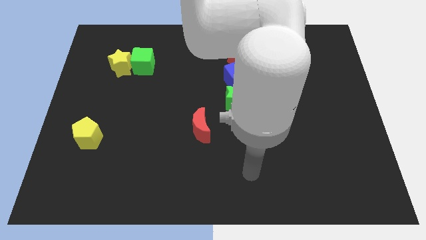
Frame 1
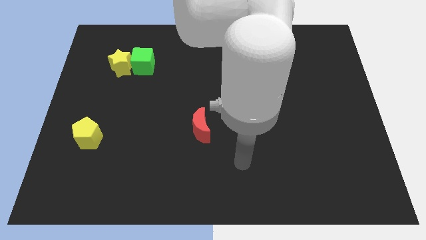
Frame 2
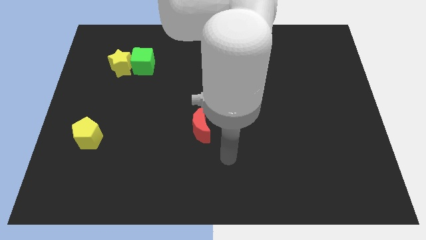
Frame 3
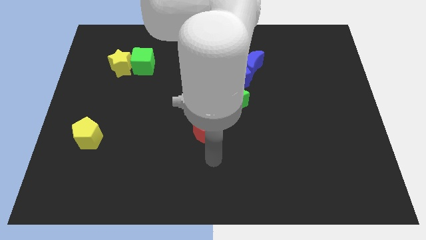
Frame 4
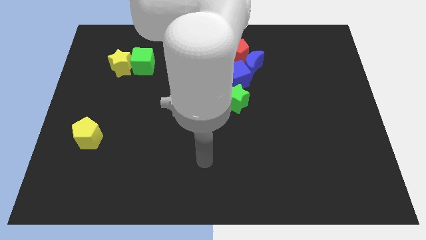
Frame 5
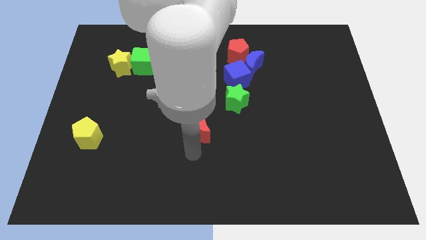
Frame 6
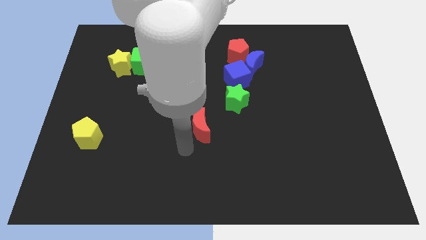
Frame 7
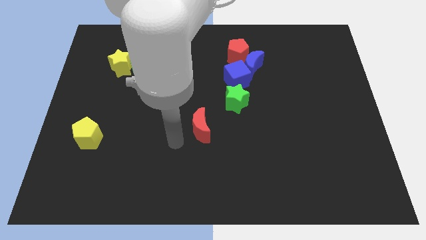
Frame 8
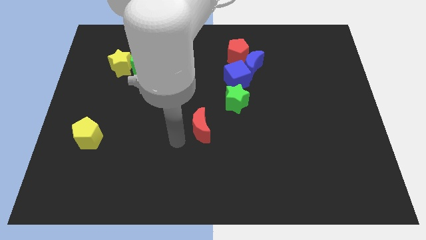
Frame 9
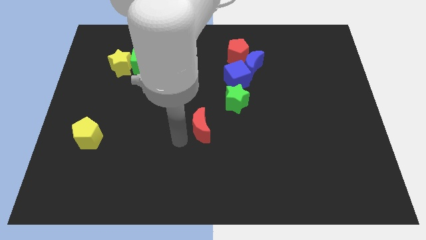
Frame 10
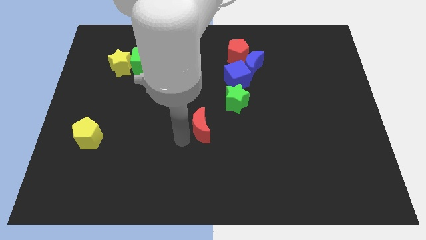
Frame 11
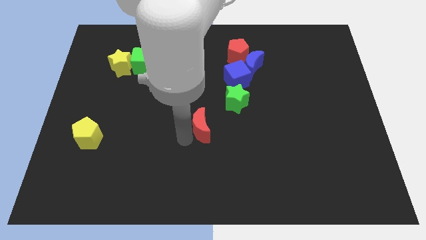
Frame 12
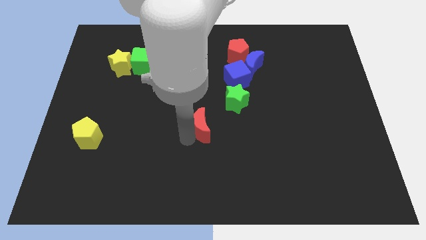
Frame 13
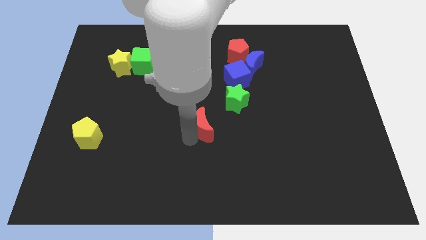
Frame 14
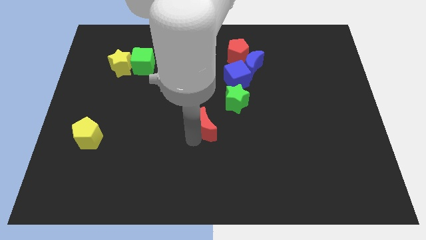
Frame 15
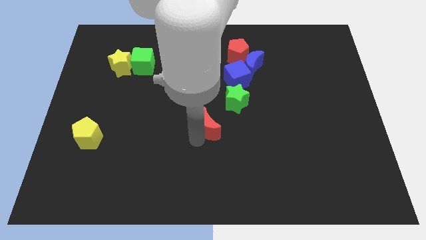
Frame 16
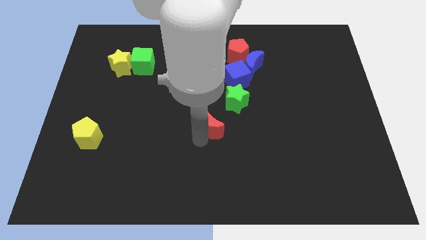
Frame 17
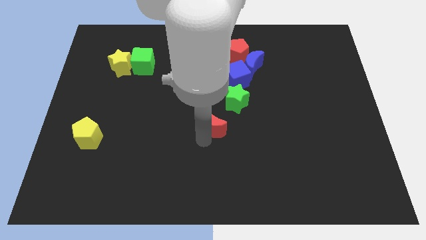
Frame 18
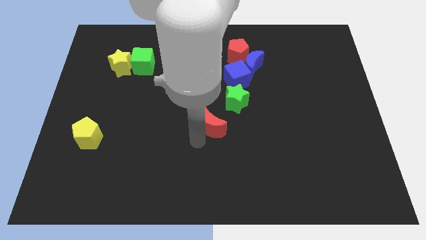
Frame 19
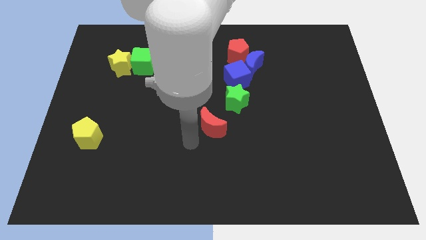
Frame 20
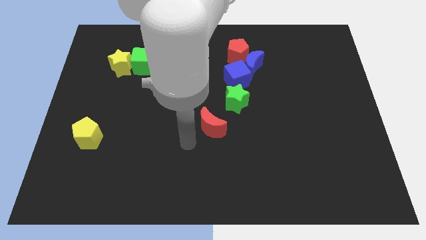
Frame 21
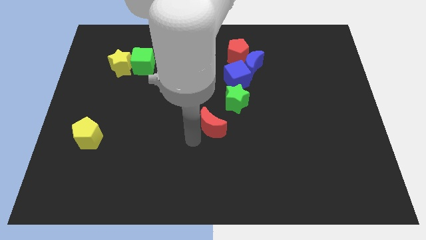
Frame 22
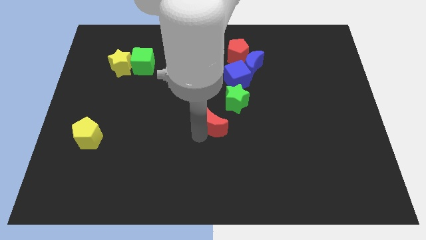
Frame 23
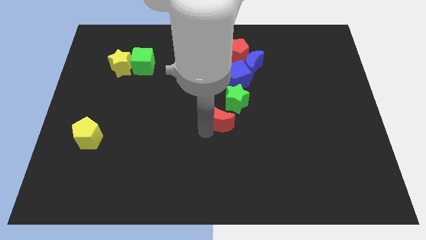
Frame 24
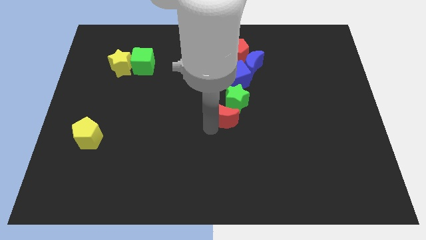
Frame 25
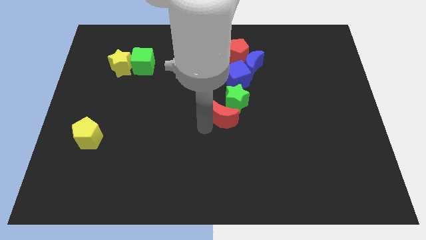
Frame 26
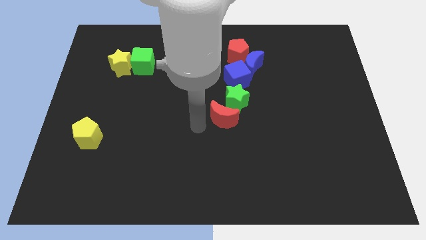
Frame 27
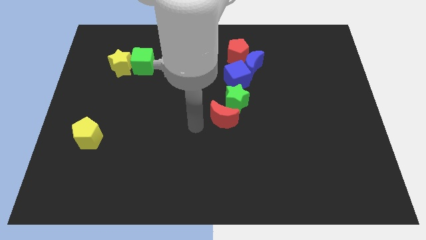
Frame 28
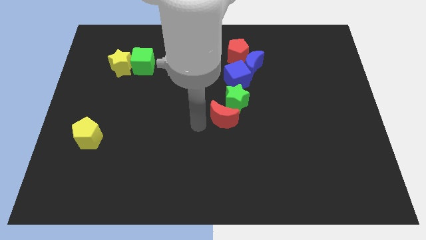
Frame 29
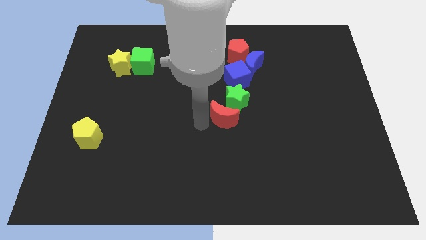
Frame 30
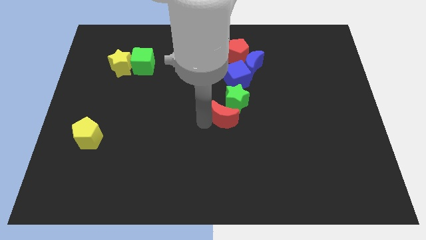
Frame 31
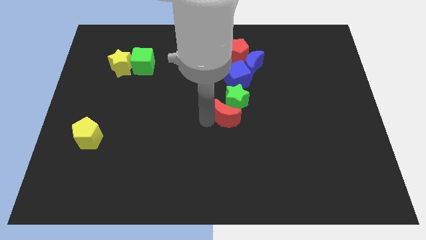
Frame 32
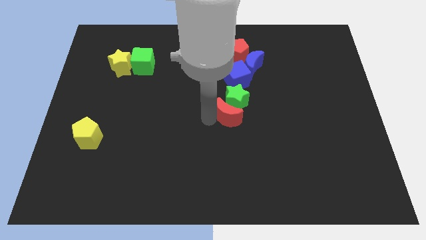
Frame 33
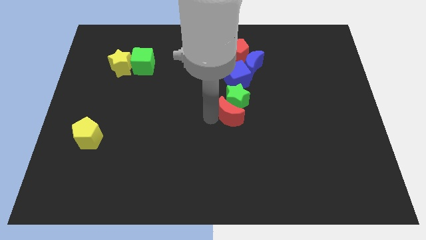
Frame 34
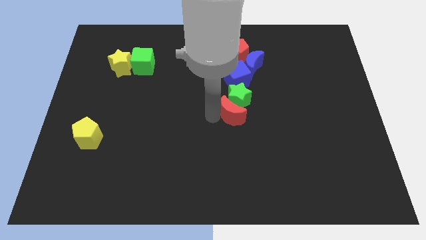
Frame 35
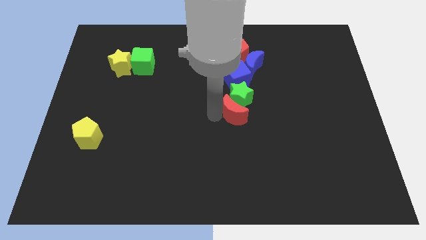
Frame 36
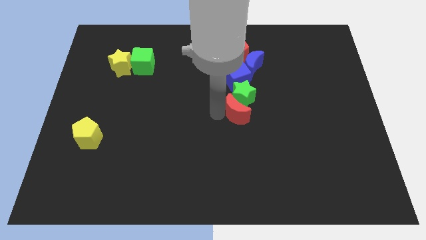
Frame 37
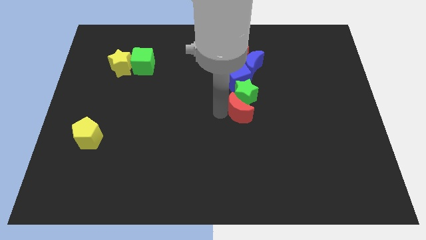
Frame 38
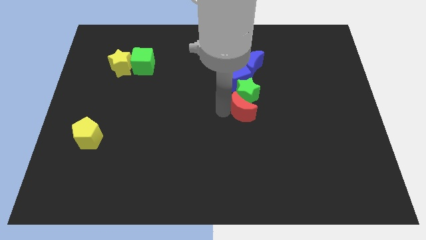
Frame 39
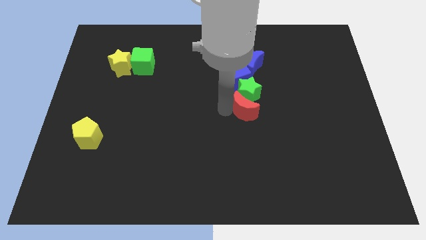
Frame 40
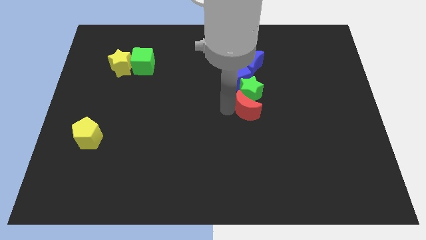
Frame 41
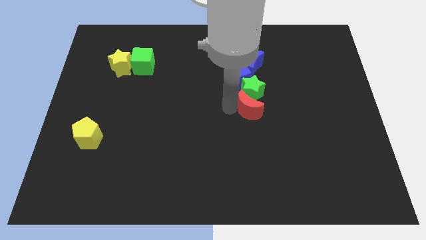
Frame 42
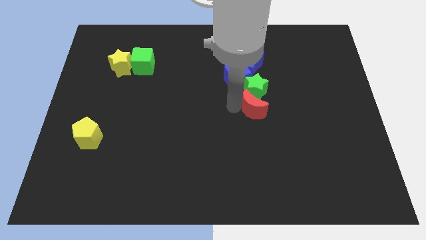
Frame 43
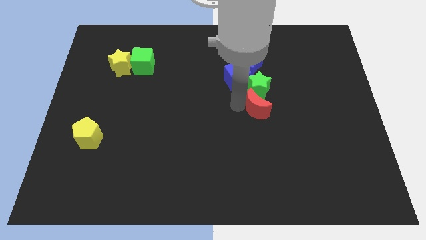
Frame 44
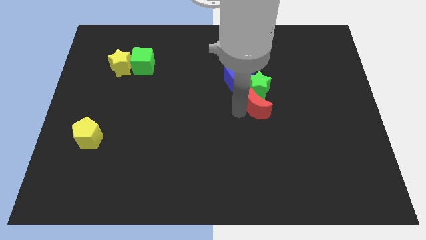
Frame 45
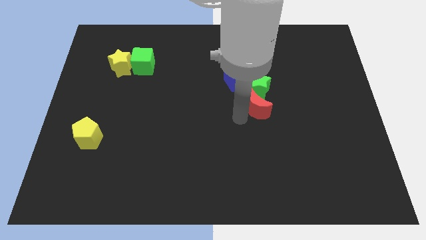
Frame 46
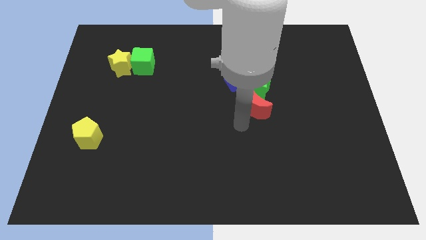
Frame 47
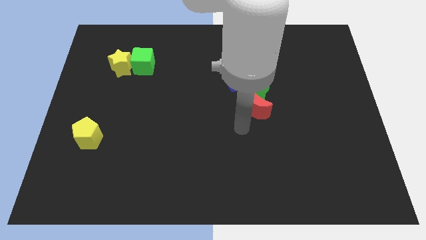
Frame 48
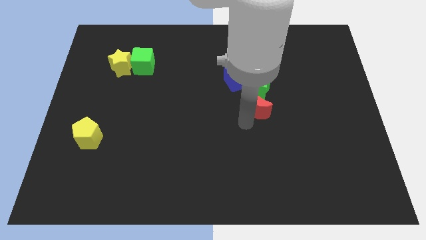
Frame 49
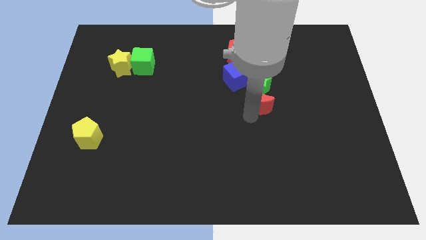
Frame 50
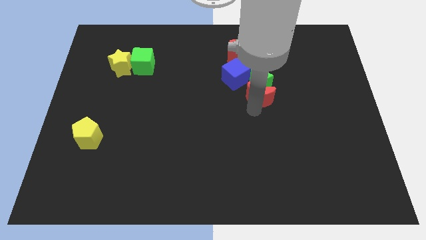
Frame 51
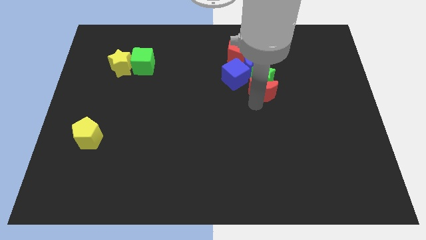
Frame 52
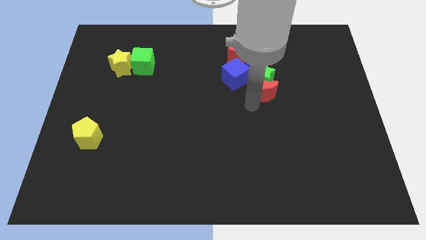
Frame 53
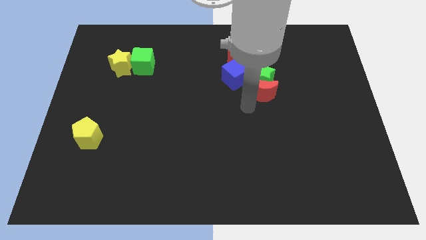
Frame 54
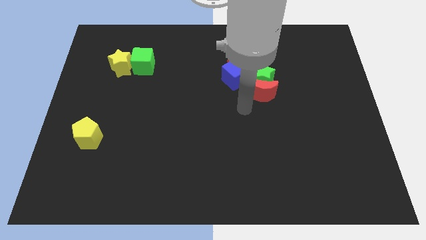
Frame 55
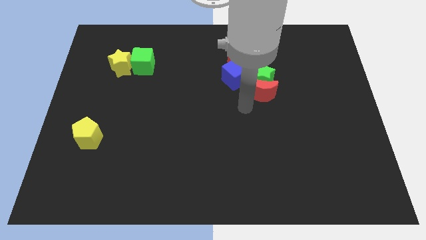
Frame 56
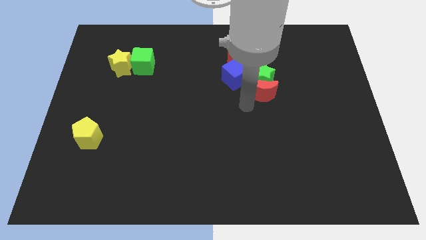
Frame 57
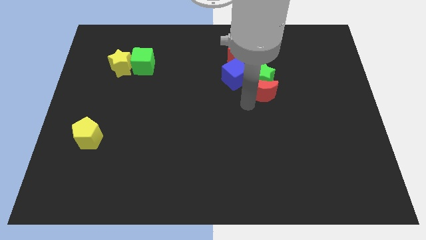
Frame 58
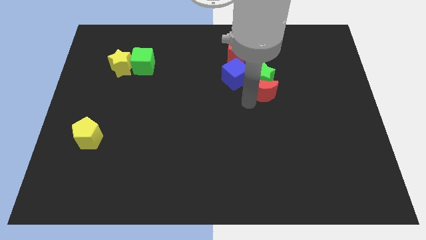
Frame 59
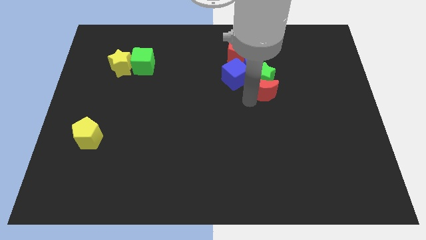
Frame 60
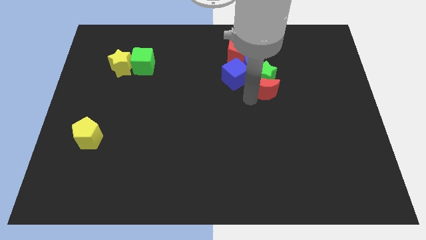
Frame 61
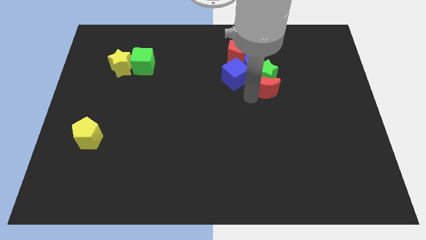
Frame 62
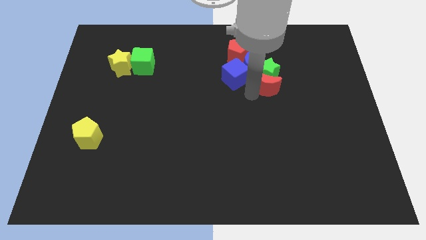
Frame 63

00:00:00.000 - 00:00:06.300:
slide the red moon up and then right

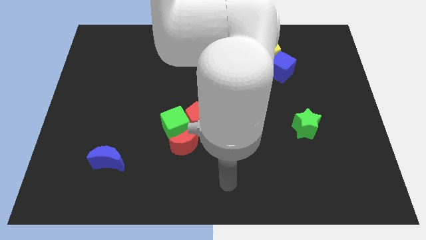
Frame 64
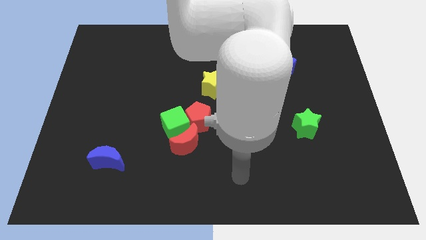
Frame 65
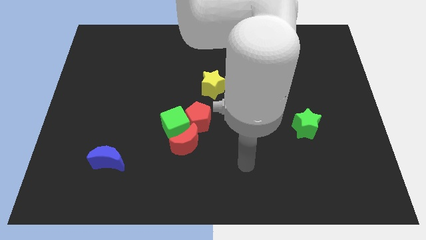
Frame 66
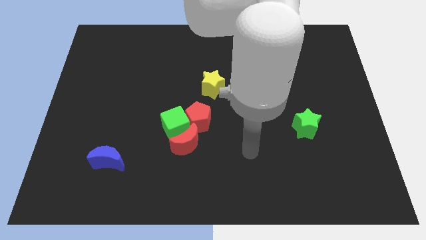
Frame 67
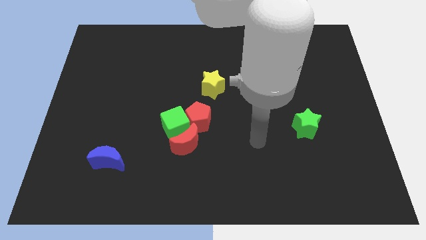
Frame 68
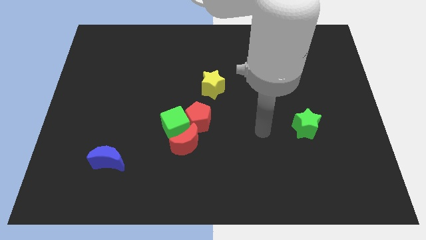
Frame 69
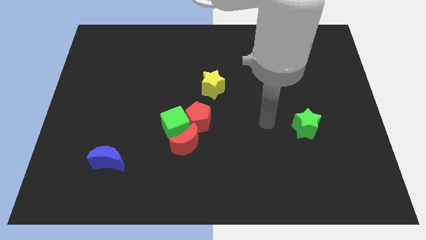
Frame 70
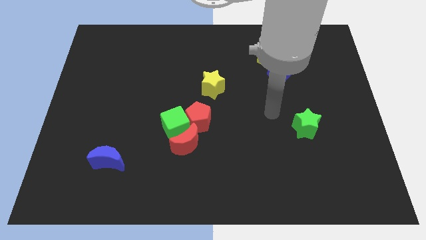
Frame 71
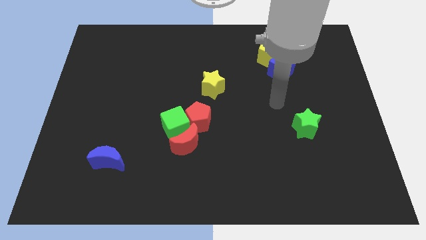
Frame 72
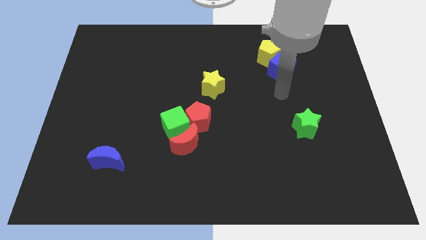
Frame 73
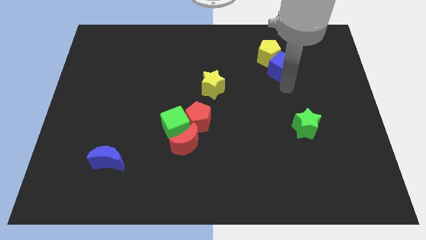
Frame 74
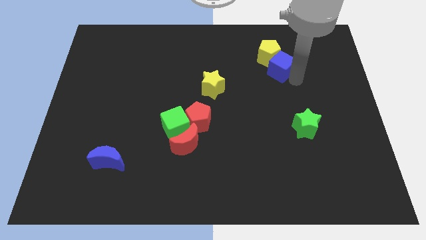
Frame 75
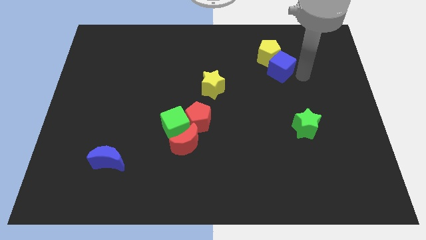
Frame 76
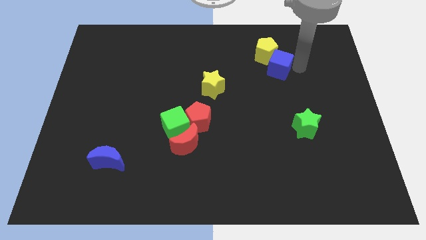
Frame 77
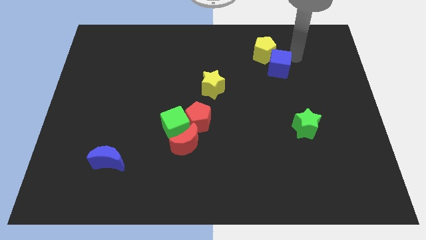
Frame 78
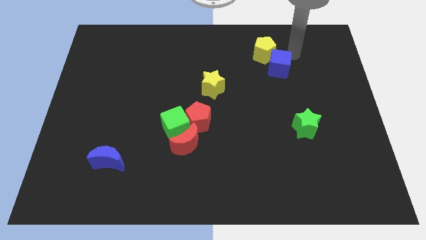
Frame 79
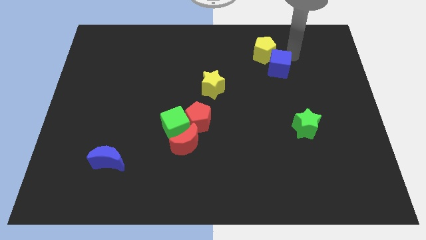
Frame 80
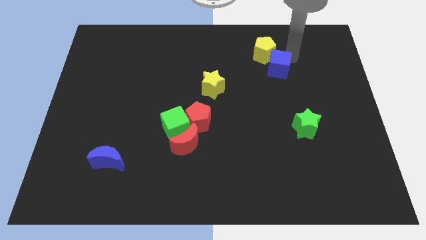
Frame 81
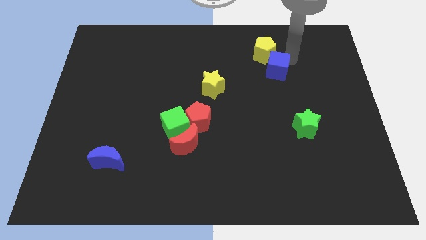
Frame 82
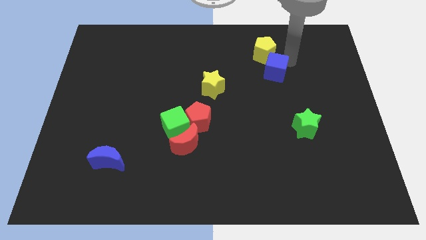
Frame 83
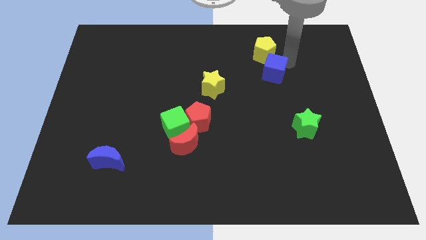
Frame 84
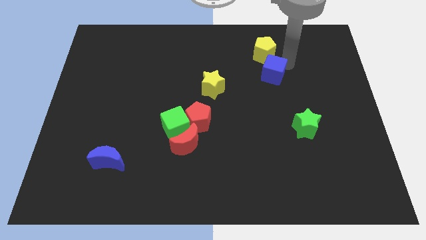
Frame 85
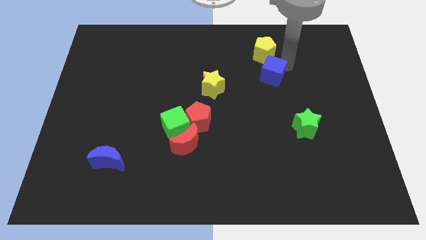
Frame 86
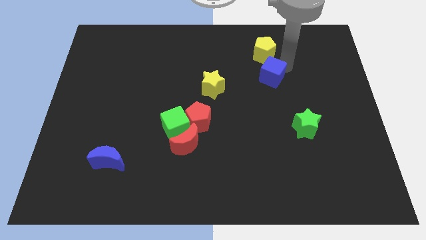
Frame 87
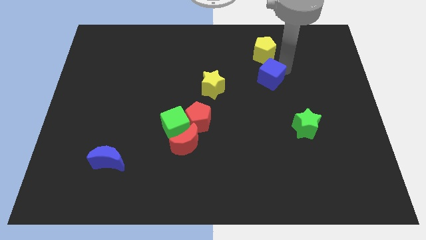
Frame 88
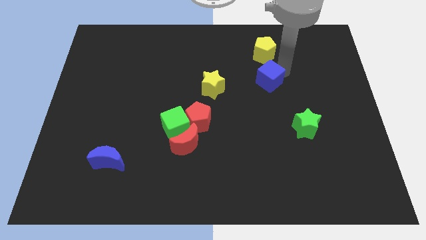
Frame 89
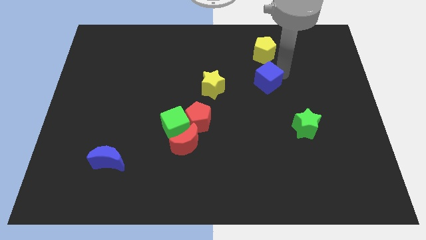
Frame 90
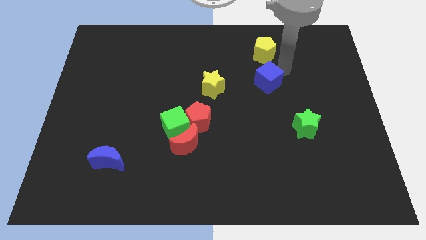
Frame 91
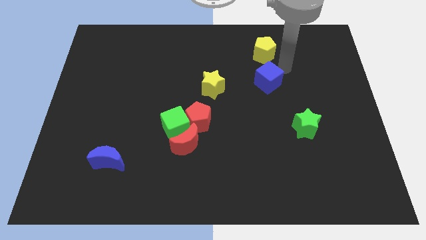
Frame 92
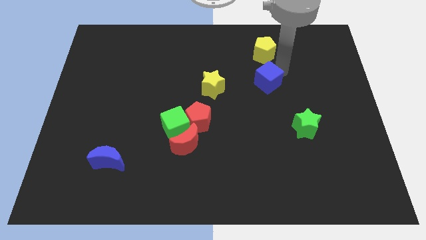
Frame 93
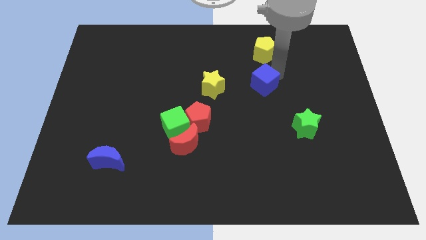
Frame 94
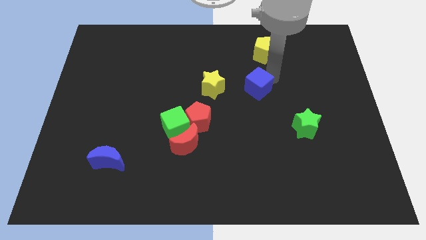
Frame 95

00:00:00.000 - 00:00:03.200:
slightly move the blue cube down and then to the left
